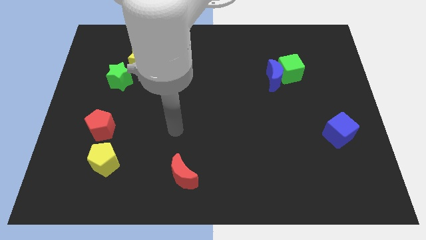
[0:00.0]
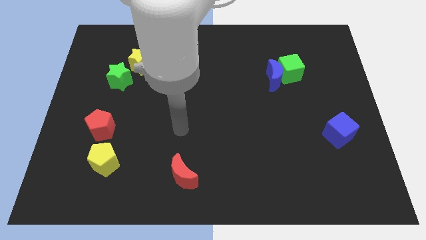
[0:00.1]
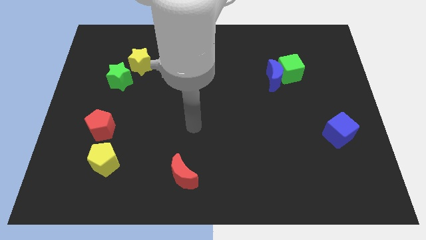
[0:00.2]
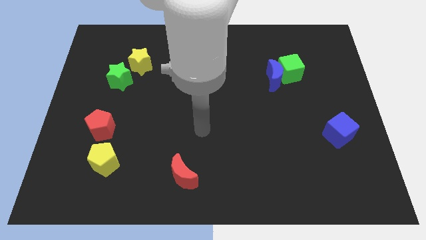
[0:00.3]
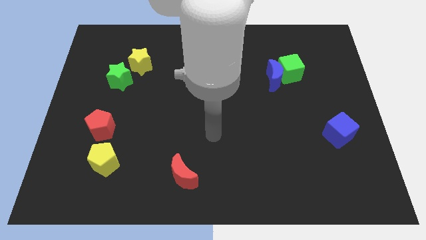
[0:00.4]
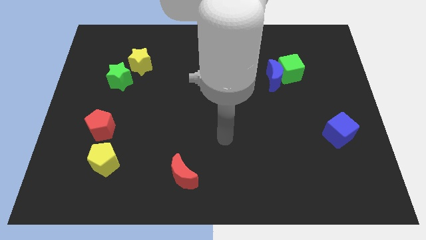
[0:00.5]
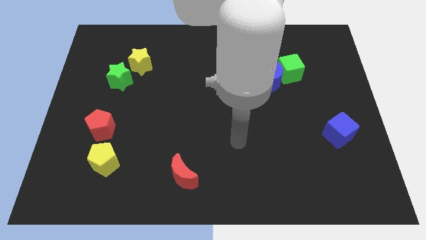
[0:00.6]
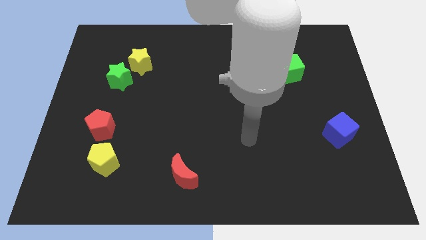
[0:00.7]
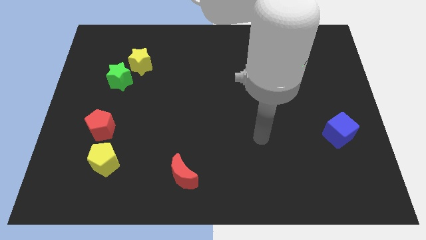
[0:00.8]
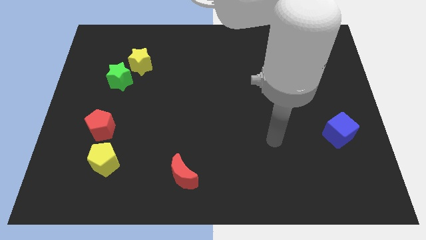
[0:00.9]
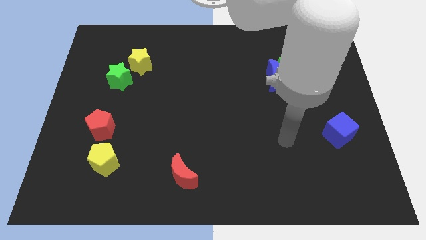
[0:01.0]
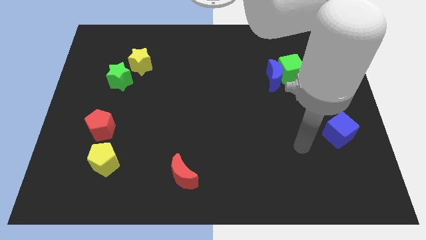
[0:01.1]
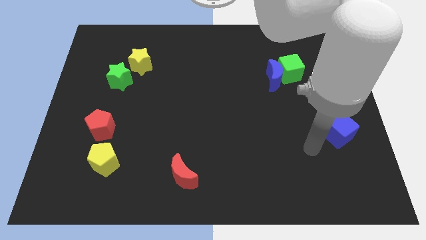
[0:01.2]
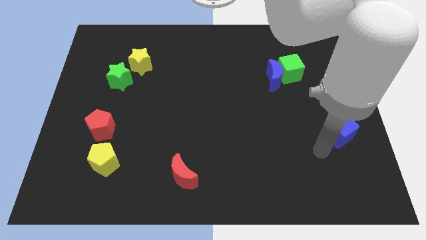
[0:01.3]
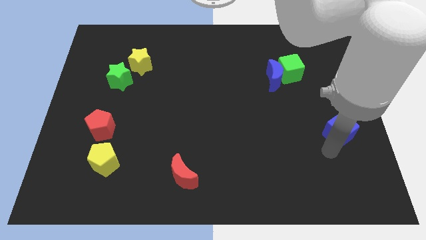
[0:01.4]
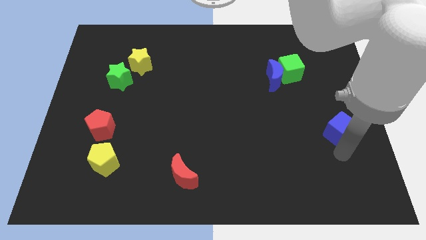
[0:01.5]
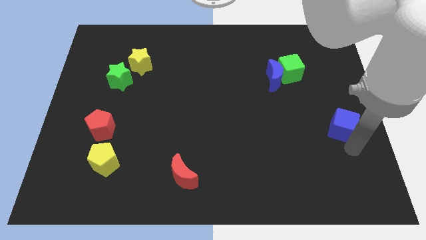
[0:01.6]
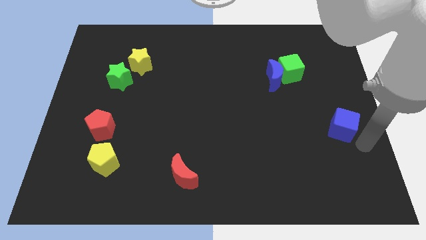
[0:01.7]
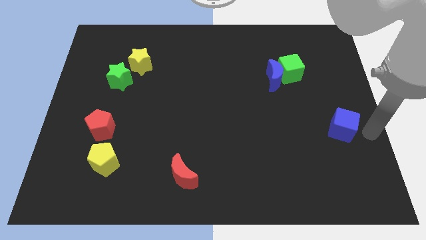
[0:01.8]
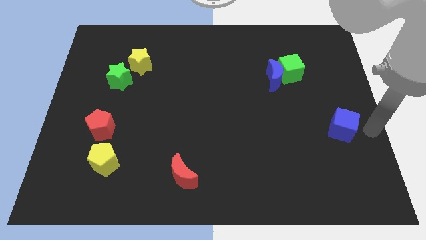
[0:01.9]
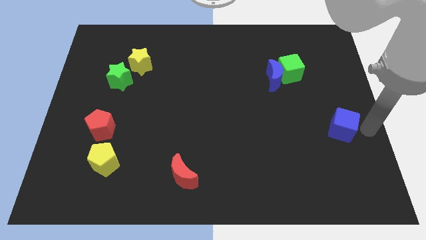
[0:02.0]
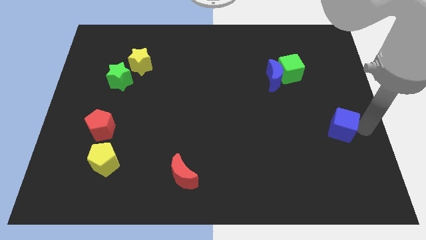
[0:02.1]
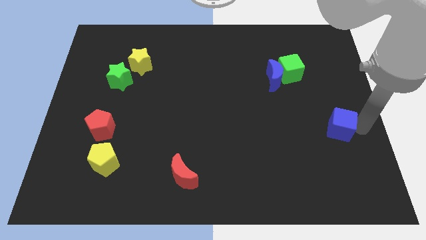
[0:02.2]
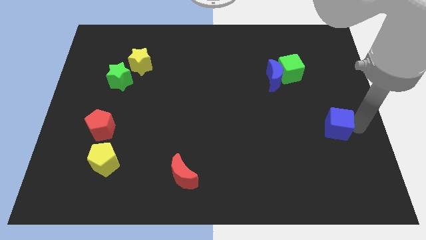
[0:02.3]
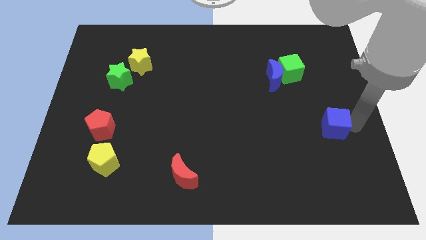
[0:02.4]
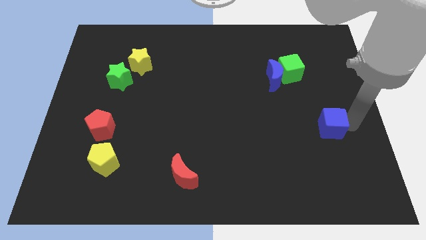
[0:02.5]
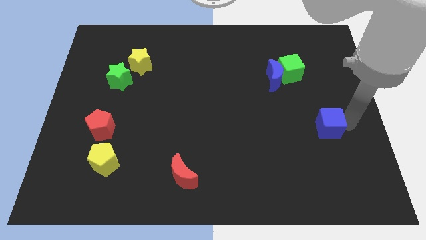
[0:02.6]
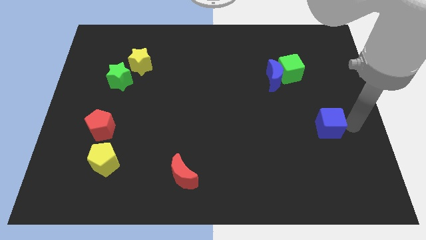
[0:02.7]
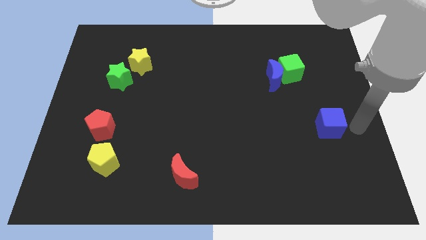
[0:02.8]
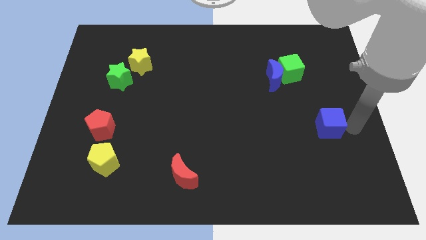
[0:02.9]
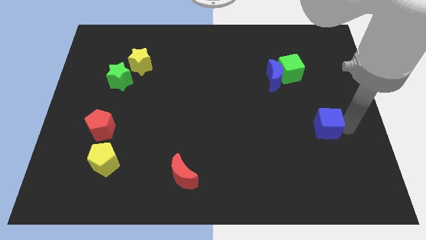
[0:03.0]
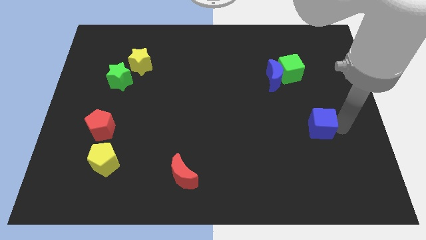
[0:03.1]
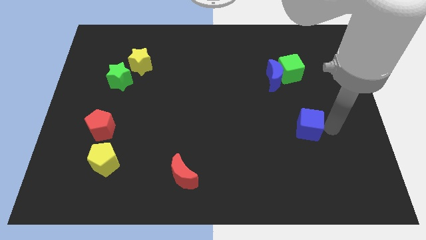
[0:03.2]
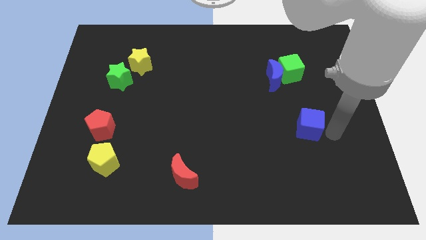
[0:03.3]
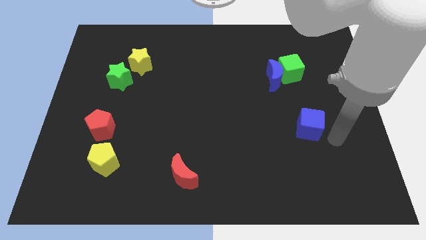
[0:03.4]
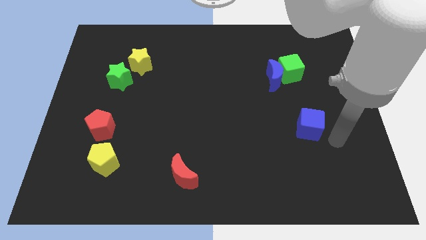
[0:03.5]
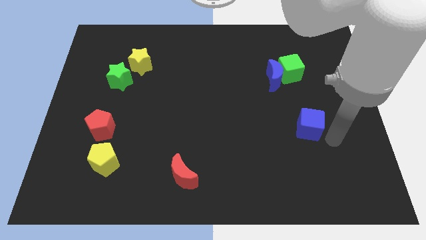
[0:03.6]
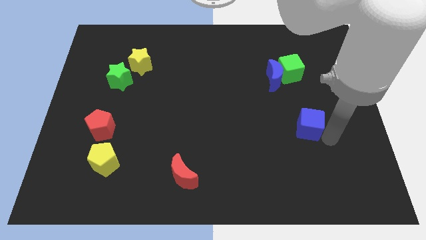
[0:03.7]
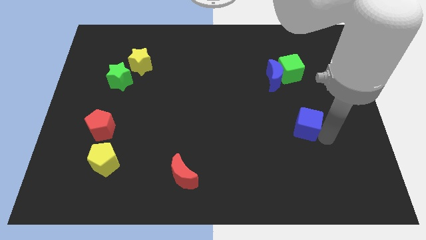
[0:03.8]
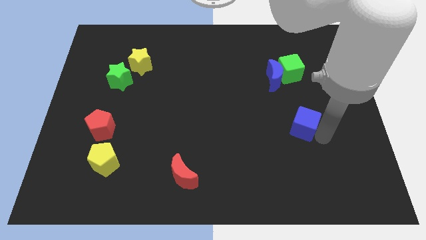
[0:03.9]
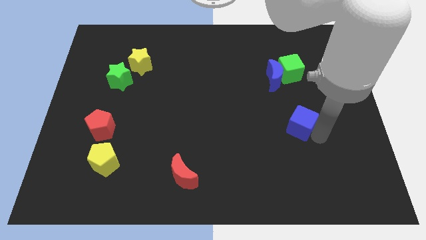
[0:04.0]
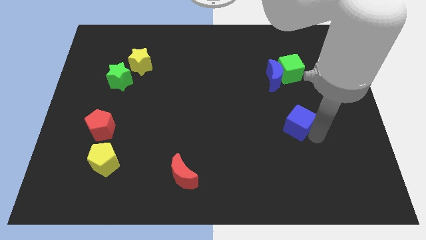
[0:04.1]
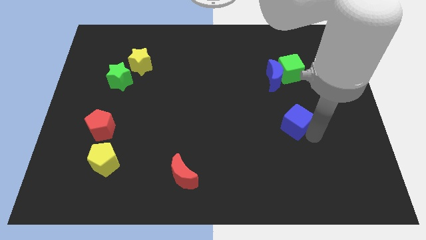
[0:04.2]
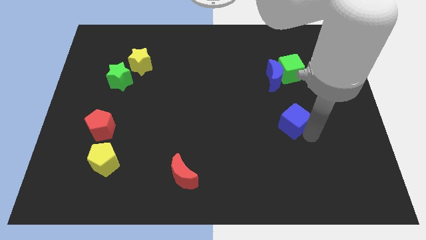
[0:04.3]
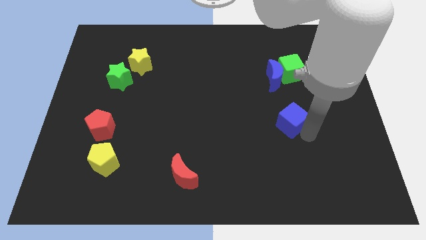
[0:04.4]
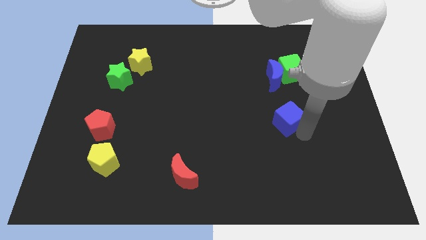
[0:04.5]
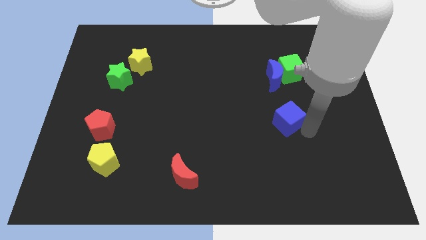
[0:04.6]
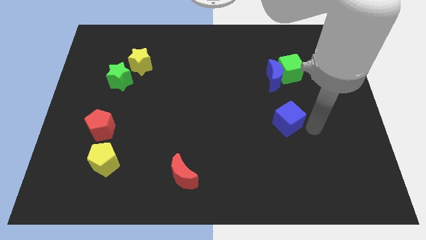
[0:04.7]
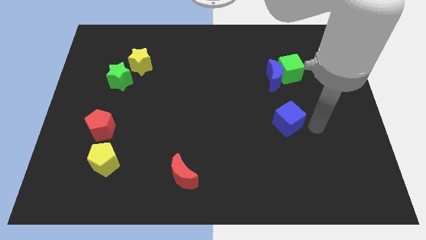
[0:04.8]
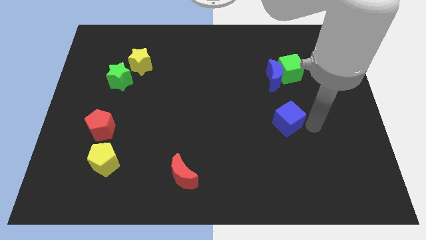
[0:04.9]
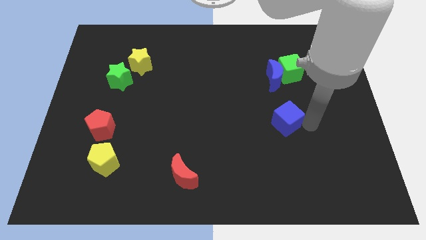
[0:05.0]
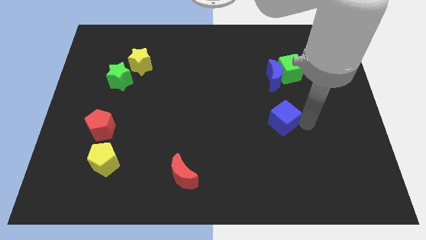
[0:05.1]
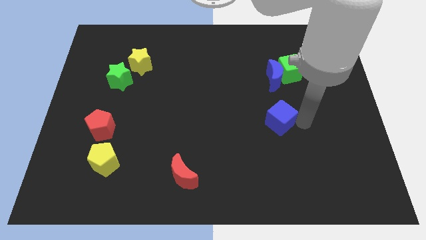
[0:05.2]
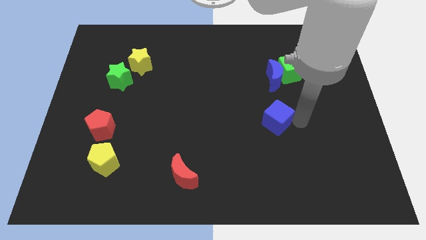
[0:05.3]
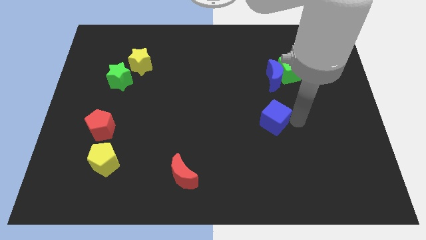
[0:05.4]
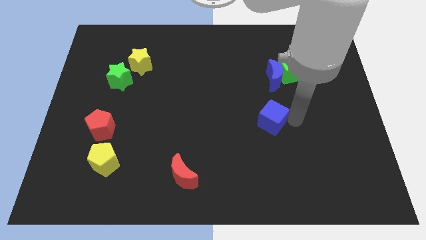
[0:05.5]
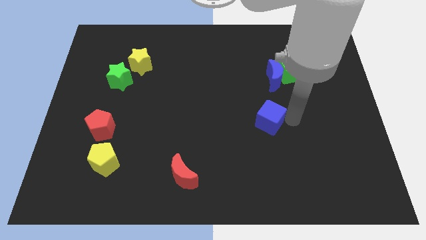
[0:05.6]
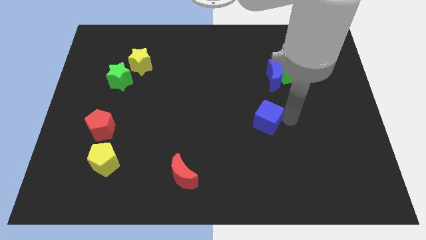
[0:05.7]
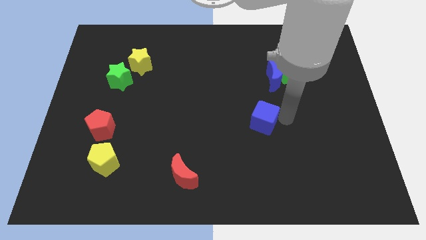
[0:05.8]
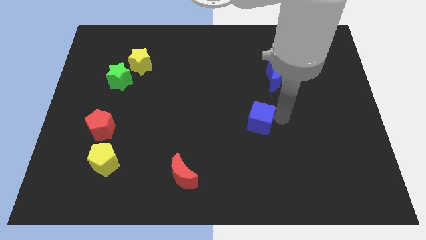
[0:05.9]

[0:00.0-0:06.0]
push the blue cube to the middle

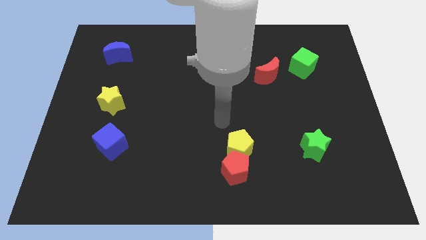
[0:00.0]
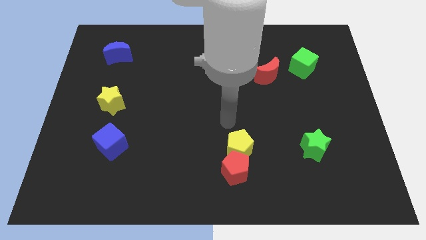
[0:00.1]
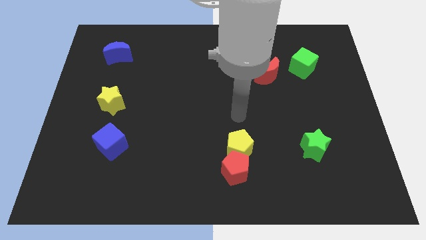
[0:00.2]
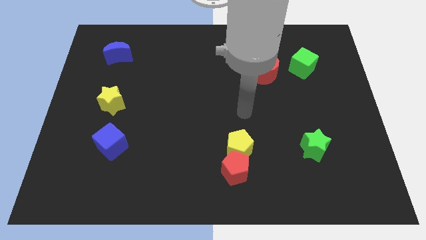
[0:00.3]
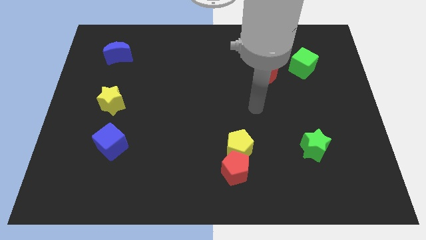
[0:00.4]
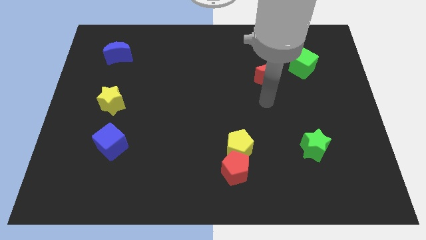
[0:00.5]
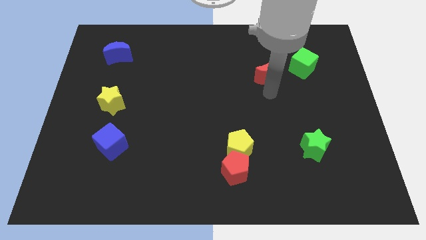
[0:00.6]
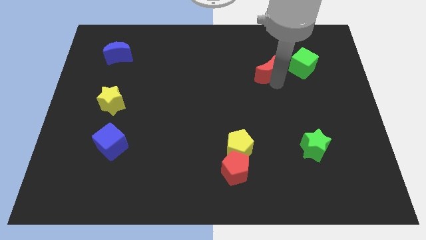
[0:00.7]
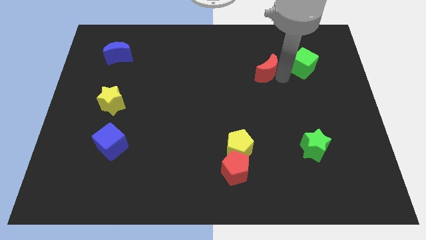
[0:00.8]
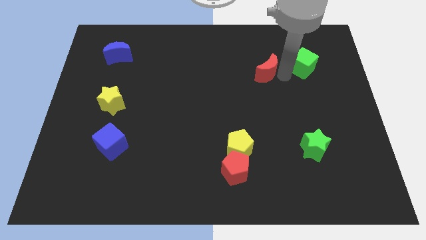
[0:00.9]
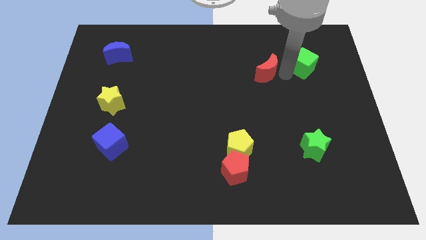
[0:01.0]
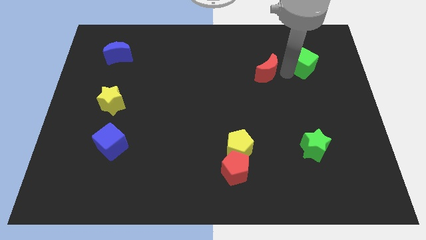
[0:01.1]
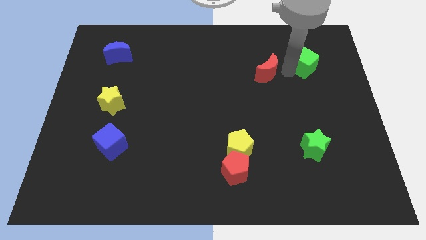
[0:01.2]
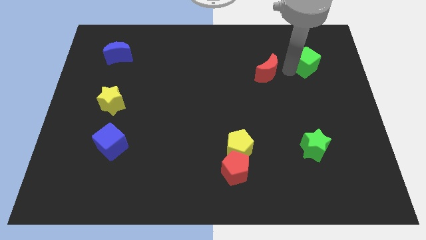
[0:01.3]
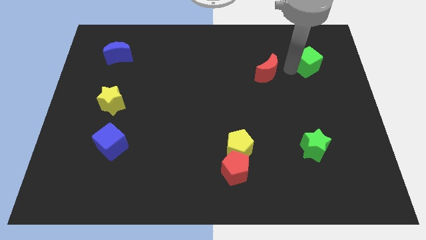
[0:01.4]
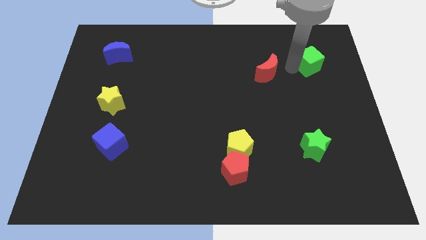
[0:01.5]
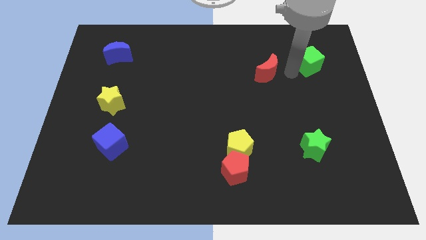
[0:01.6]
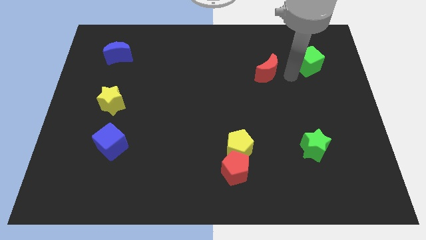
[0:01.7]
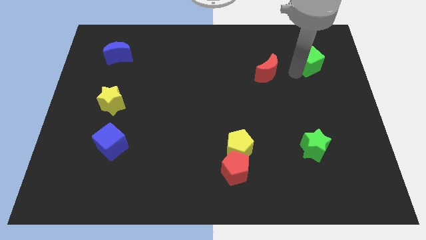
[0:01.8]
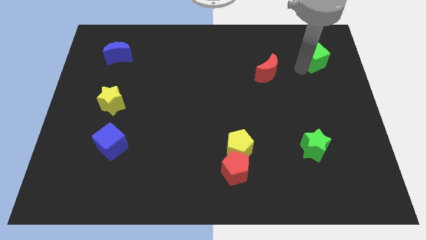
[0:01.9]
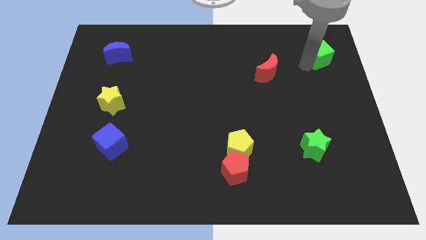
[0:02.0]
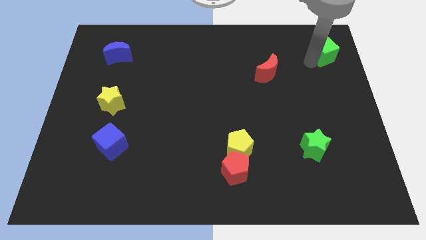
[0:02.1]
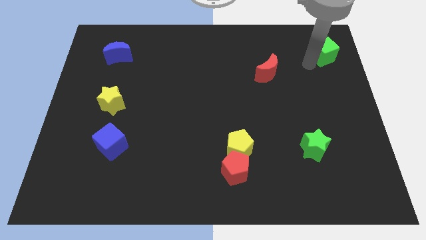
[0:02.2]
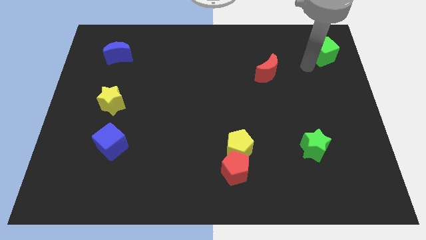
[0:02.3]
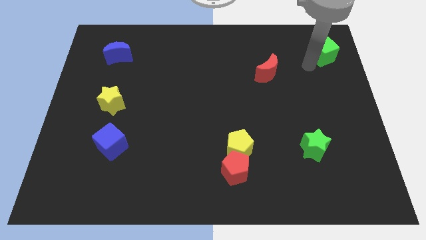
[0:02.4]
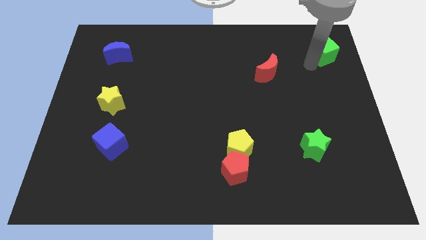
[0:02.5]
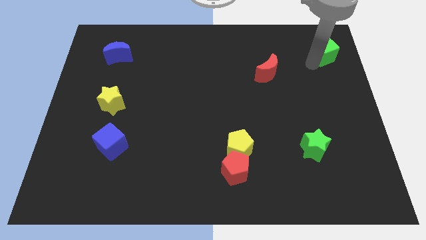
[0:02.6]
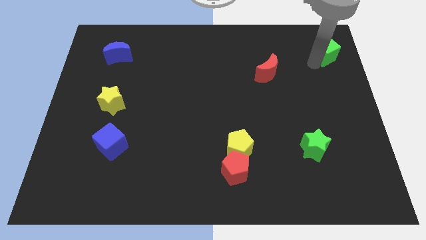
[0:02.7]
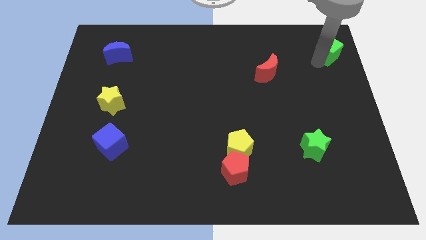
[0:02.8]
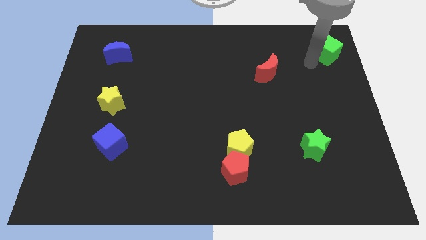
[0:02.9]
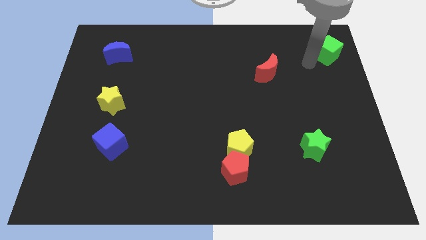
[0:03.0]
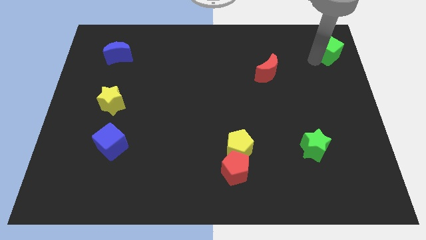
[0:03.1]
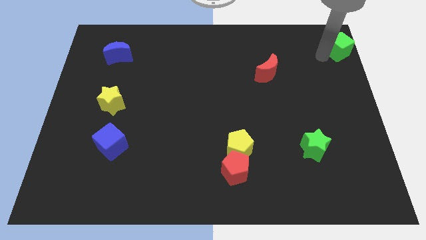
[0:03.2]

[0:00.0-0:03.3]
move the green cube to the top right
